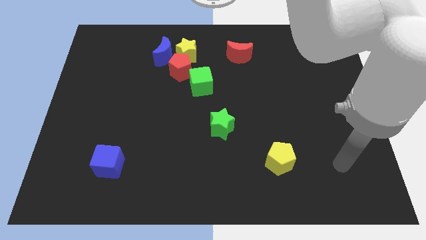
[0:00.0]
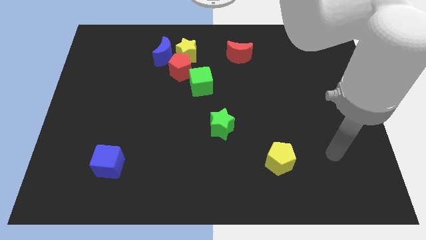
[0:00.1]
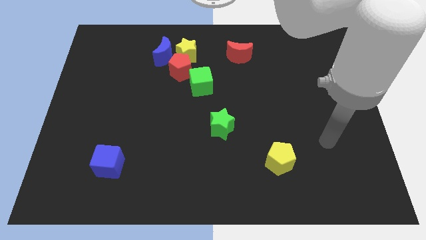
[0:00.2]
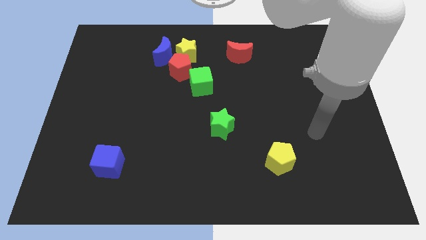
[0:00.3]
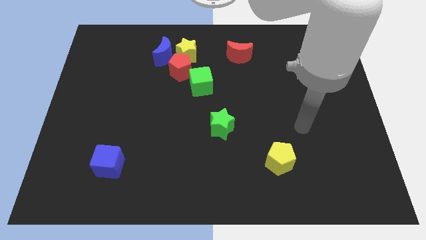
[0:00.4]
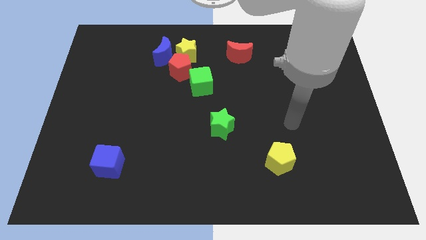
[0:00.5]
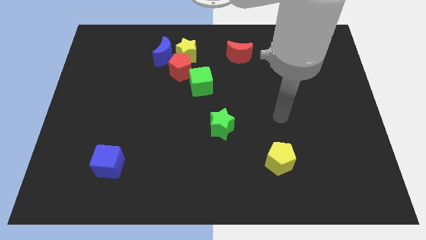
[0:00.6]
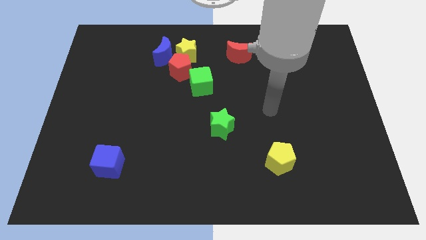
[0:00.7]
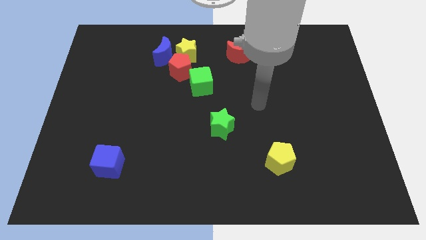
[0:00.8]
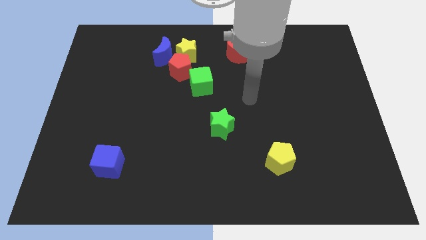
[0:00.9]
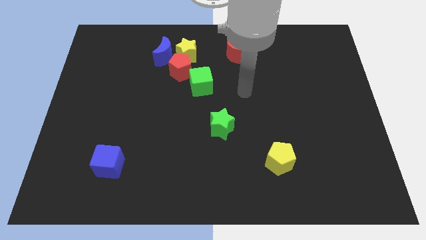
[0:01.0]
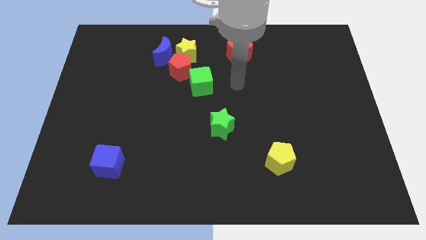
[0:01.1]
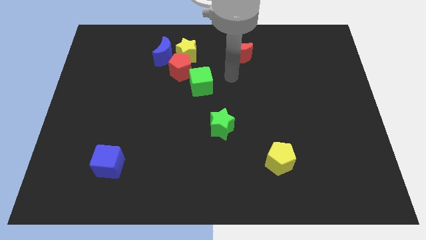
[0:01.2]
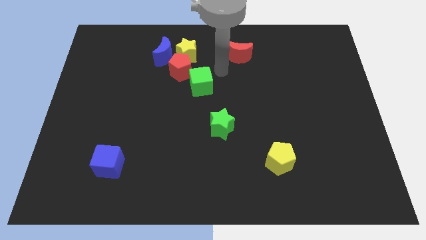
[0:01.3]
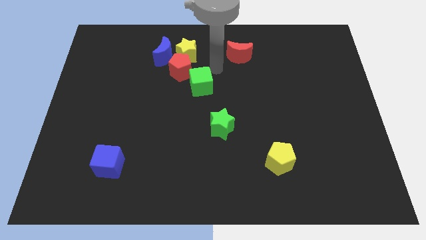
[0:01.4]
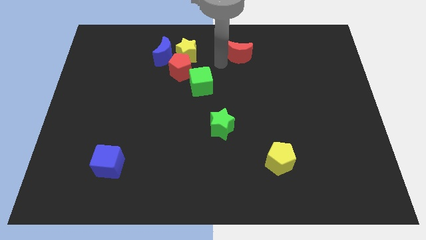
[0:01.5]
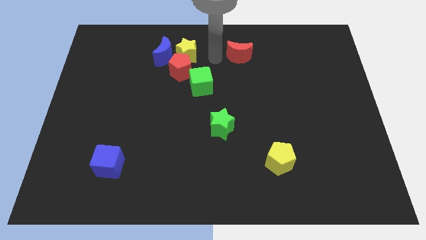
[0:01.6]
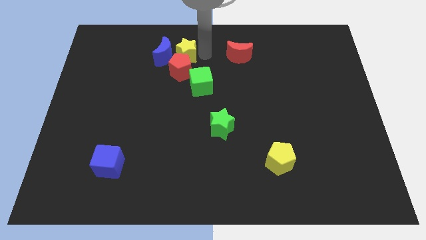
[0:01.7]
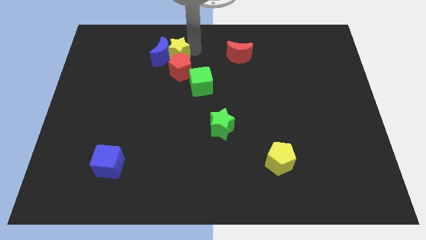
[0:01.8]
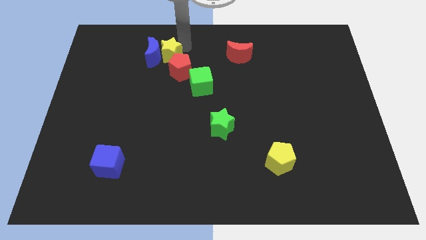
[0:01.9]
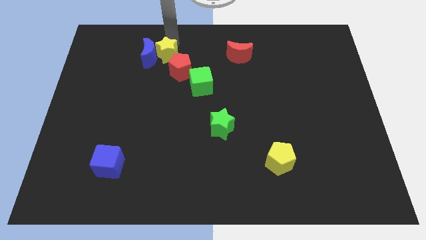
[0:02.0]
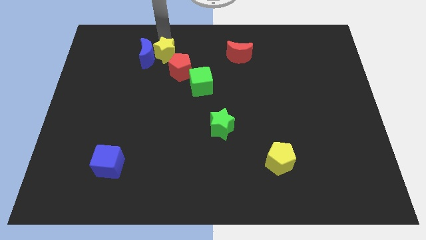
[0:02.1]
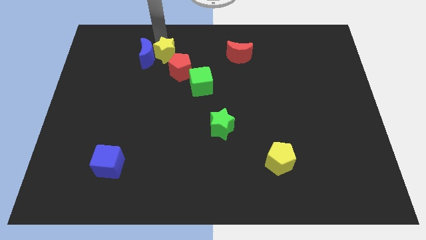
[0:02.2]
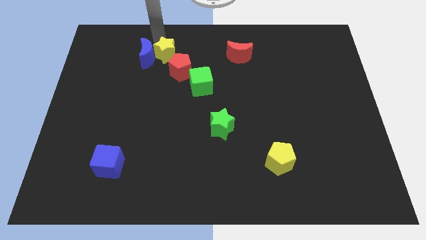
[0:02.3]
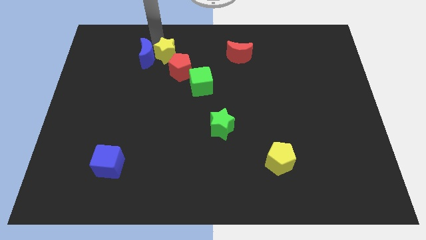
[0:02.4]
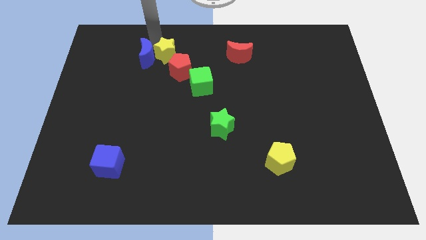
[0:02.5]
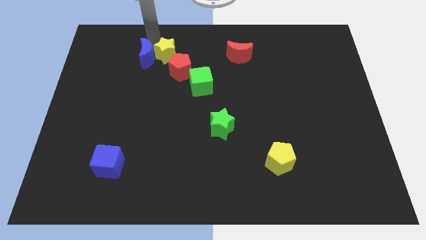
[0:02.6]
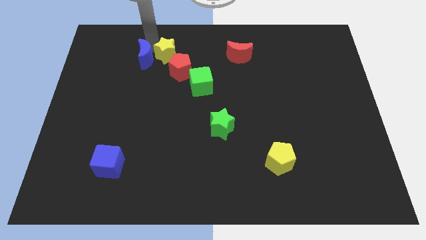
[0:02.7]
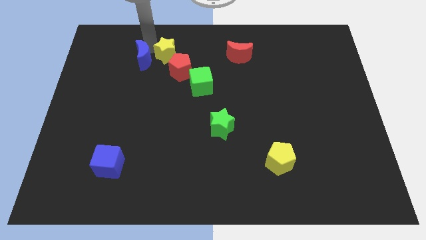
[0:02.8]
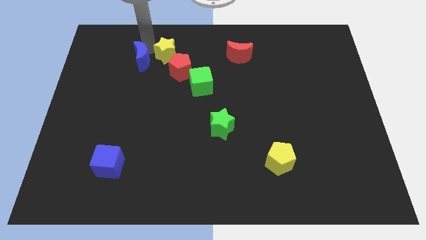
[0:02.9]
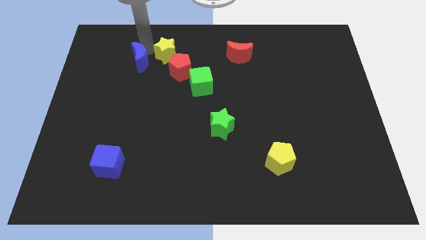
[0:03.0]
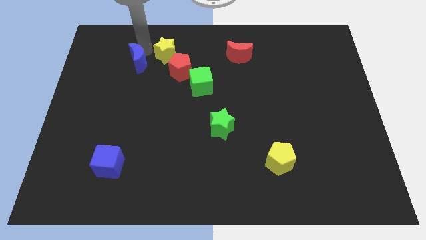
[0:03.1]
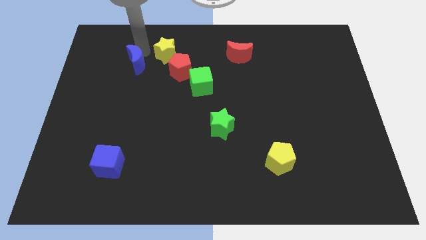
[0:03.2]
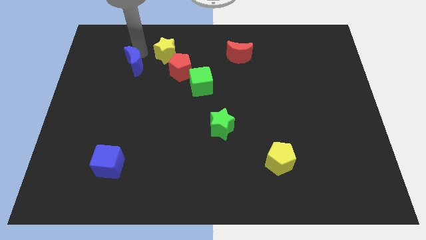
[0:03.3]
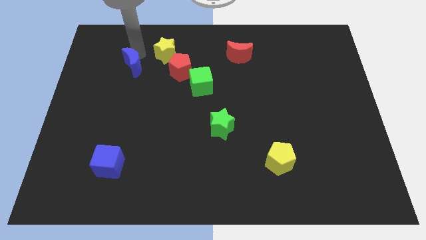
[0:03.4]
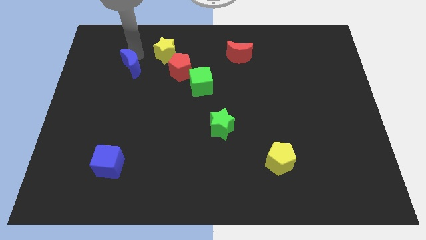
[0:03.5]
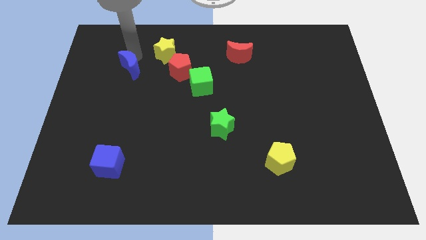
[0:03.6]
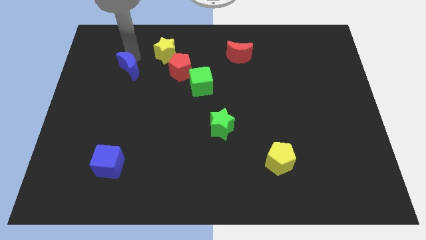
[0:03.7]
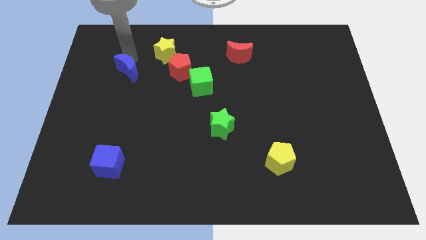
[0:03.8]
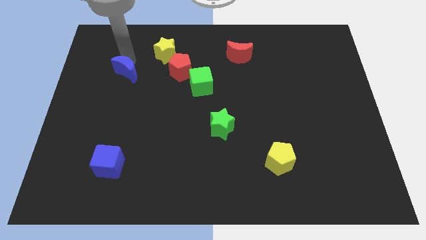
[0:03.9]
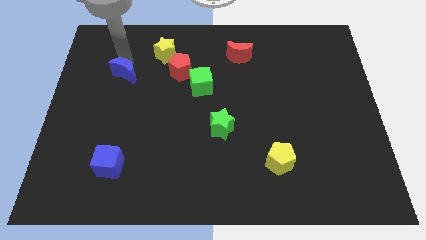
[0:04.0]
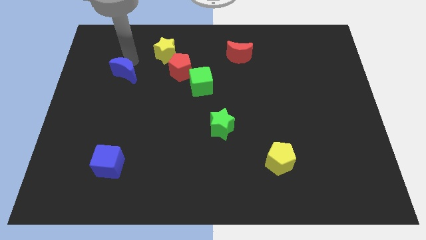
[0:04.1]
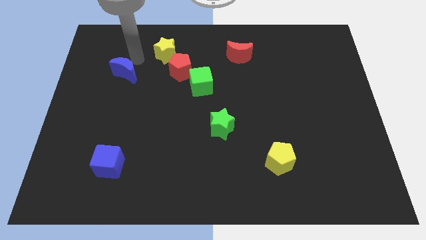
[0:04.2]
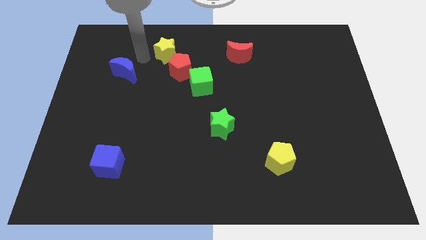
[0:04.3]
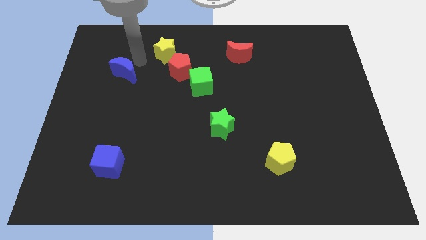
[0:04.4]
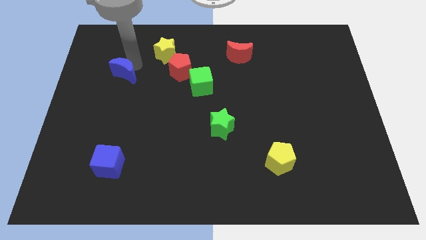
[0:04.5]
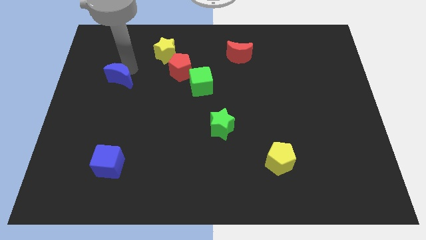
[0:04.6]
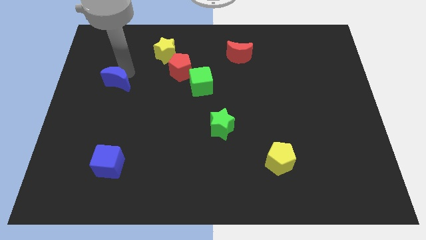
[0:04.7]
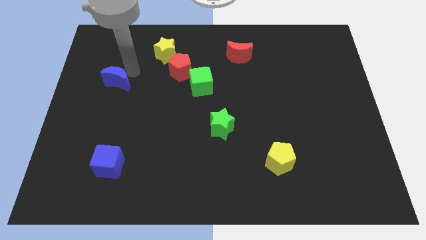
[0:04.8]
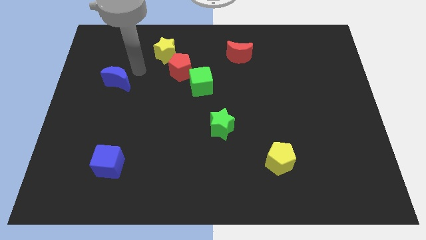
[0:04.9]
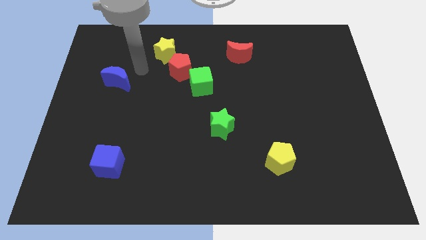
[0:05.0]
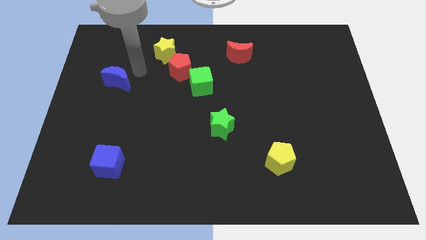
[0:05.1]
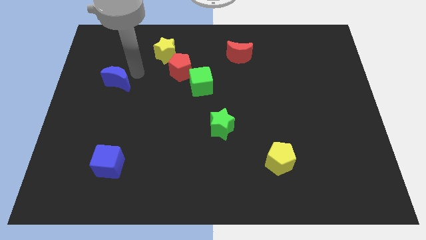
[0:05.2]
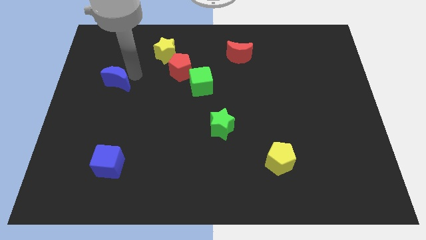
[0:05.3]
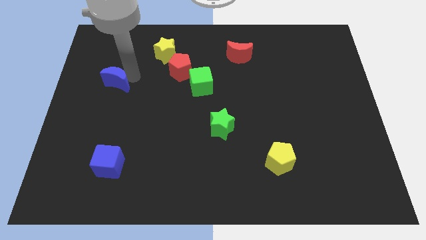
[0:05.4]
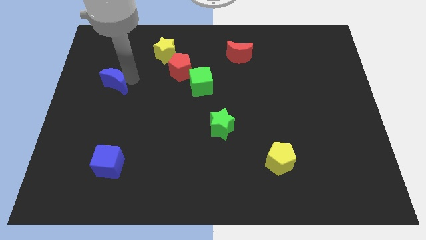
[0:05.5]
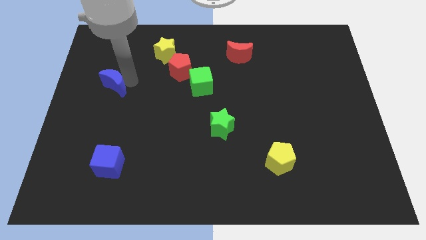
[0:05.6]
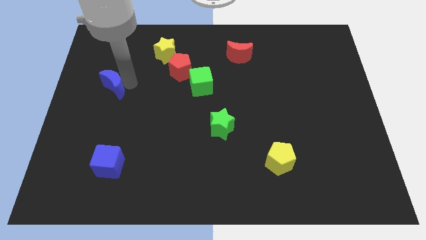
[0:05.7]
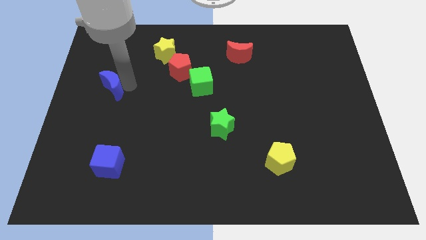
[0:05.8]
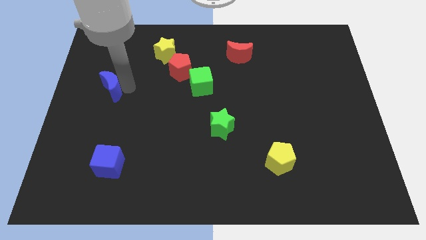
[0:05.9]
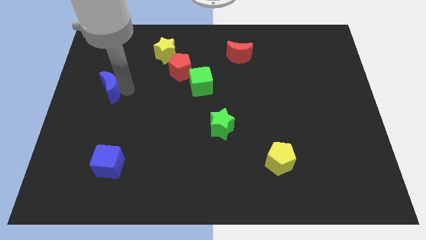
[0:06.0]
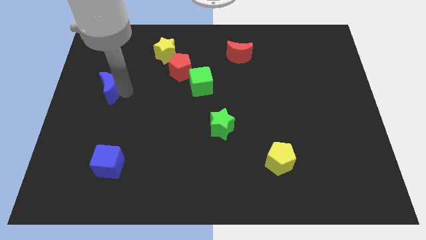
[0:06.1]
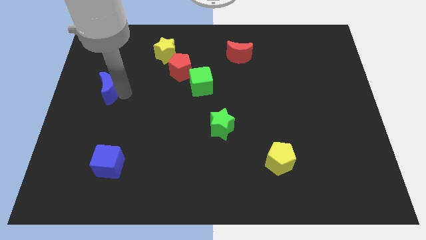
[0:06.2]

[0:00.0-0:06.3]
push the blue moon to the left side of the board
